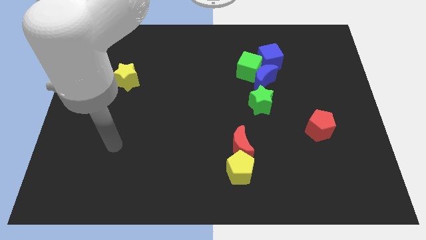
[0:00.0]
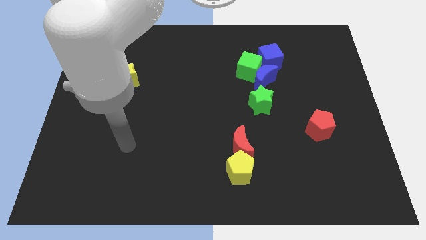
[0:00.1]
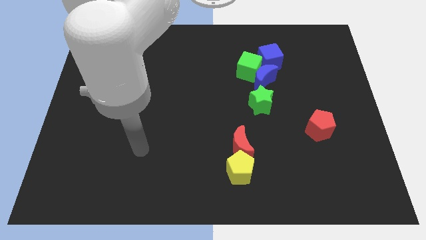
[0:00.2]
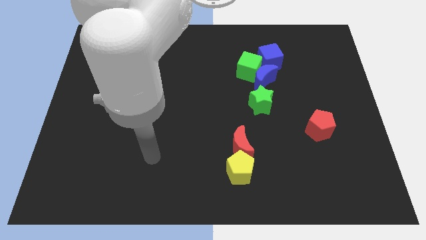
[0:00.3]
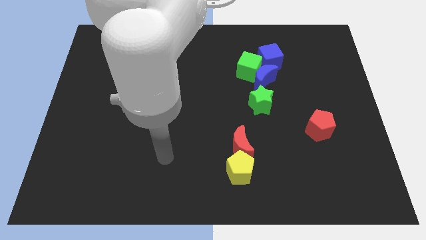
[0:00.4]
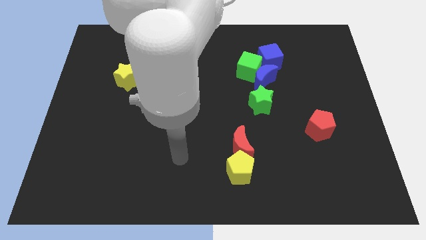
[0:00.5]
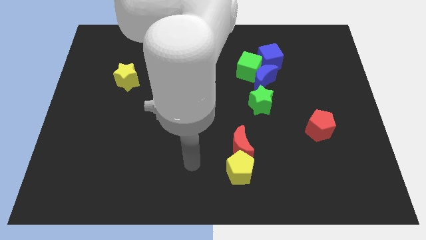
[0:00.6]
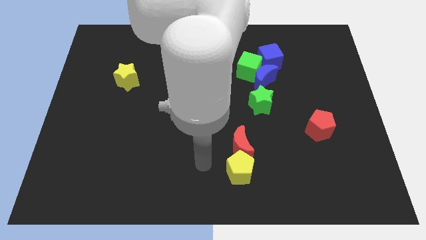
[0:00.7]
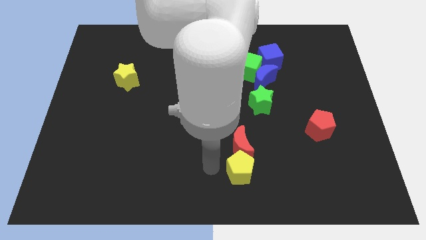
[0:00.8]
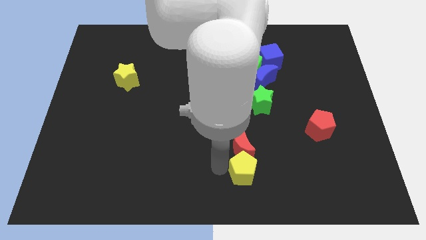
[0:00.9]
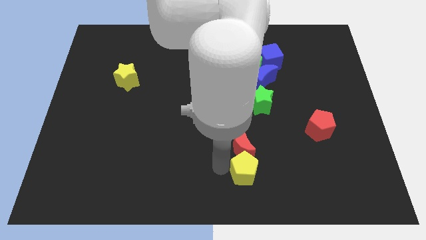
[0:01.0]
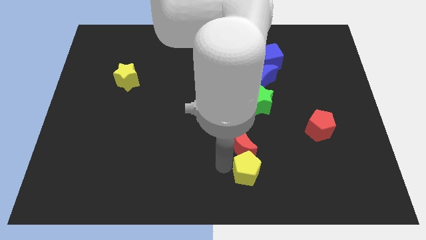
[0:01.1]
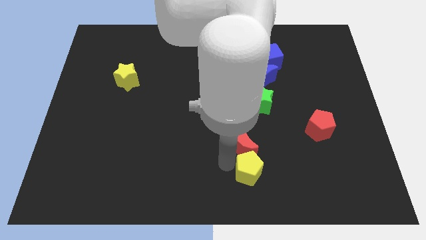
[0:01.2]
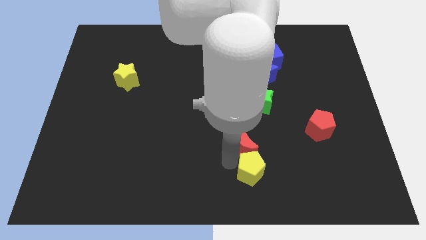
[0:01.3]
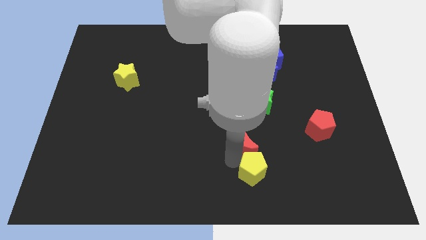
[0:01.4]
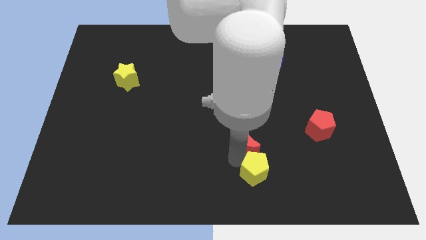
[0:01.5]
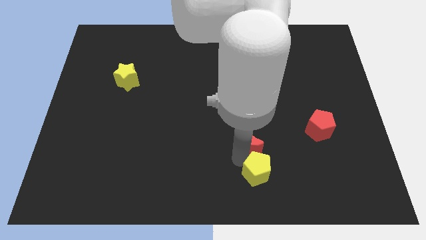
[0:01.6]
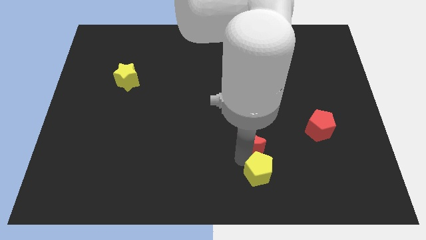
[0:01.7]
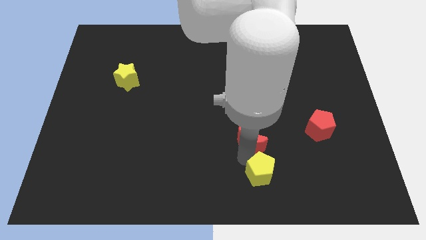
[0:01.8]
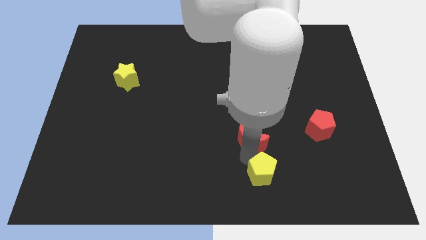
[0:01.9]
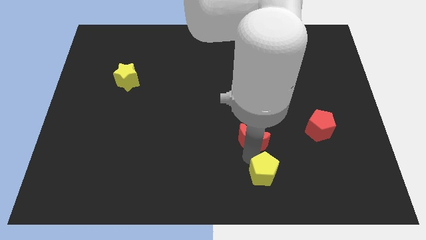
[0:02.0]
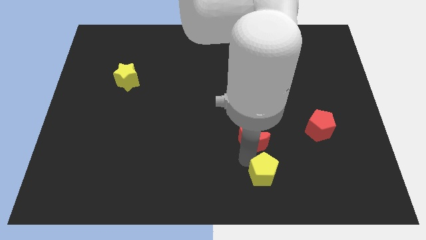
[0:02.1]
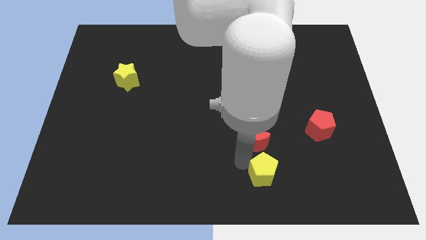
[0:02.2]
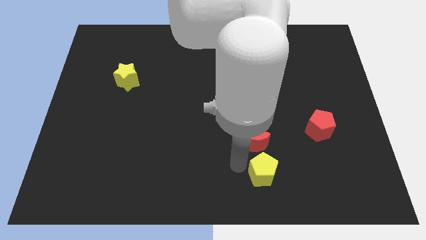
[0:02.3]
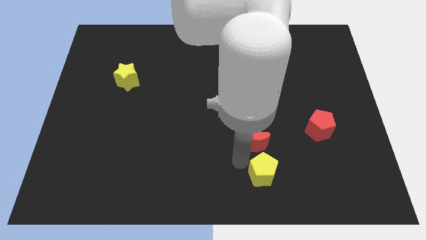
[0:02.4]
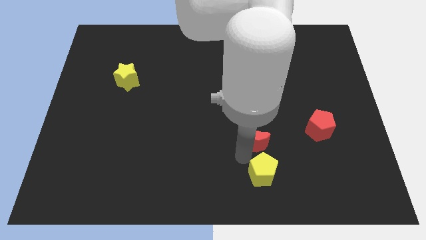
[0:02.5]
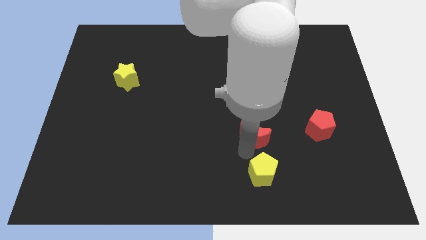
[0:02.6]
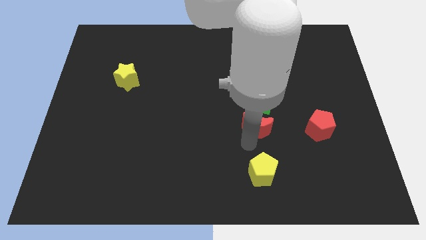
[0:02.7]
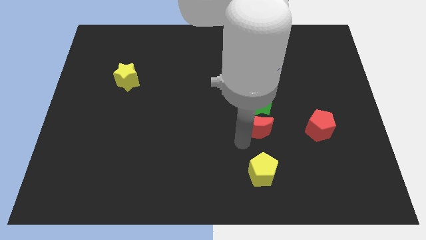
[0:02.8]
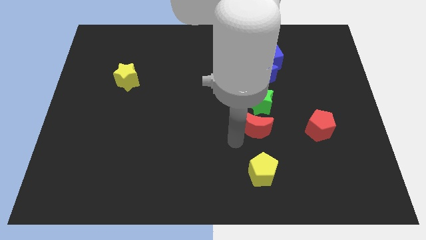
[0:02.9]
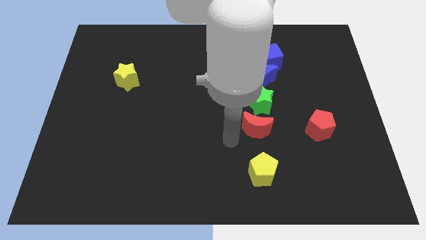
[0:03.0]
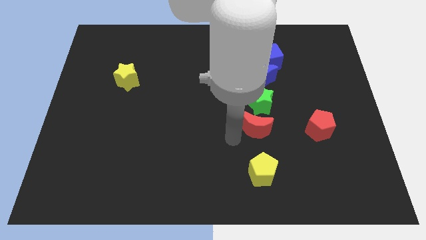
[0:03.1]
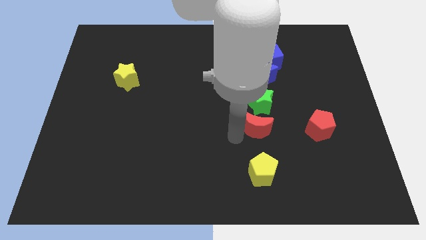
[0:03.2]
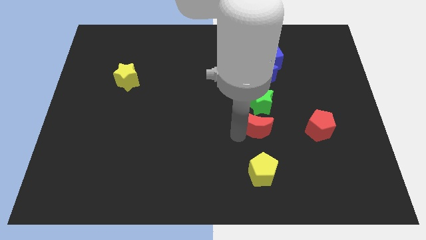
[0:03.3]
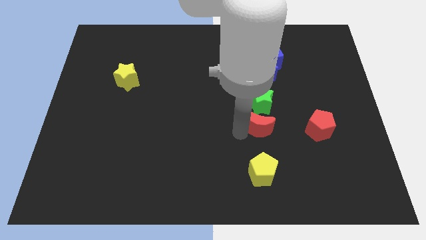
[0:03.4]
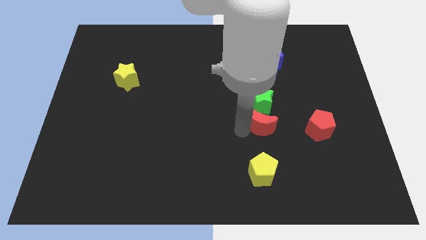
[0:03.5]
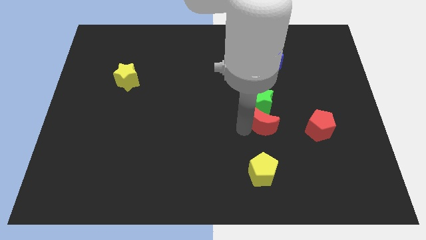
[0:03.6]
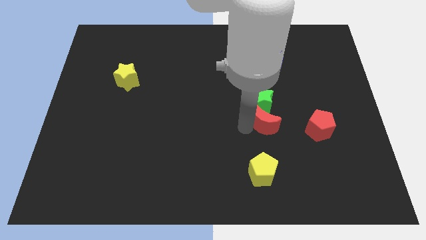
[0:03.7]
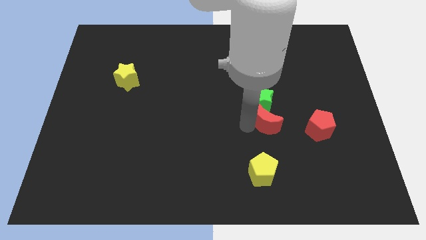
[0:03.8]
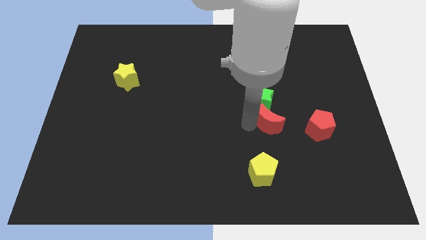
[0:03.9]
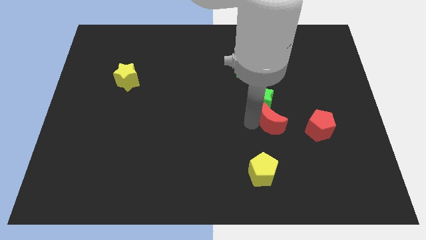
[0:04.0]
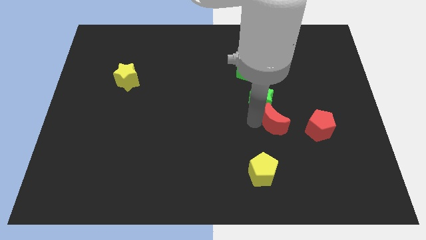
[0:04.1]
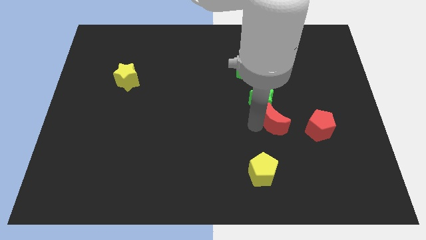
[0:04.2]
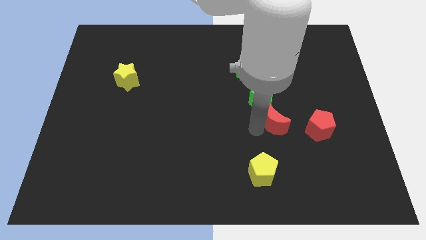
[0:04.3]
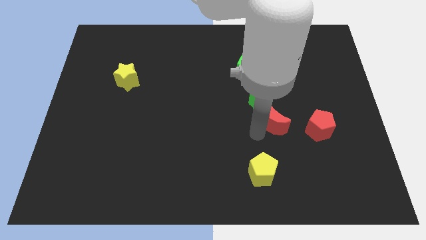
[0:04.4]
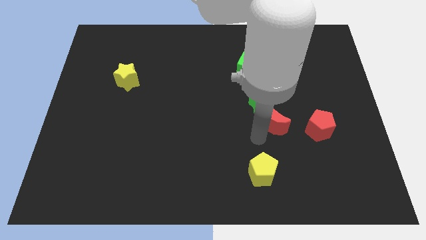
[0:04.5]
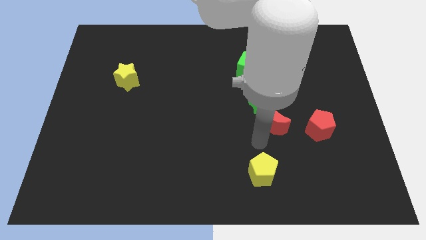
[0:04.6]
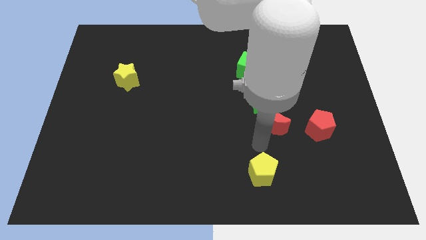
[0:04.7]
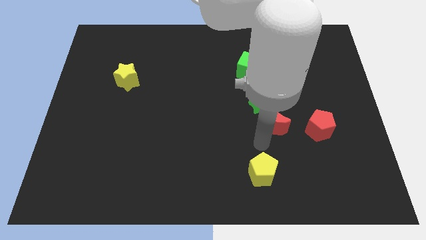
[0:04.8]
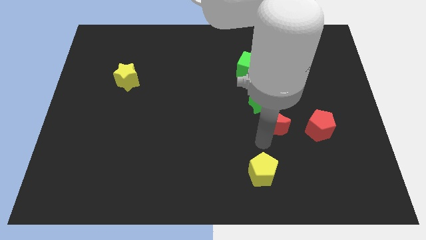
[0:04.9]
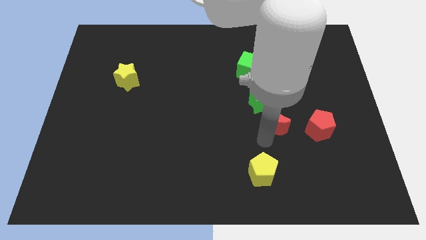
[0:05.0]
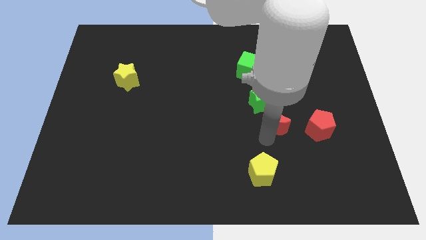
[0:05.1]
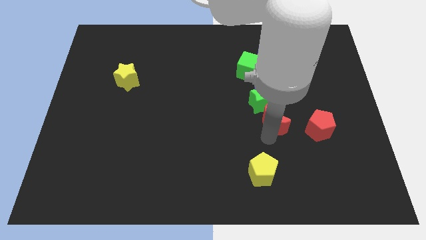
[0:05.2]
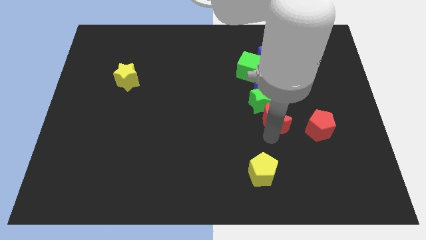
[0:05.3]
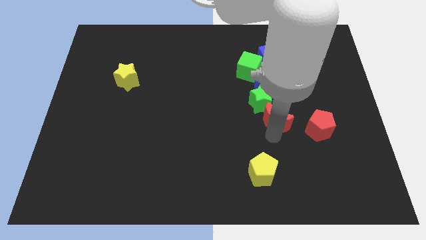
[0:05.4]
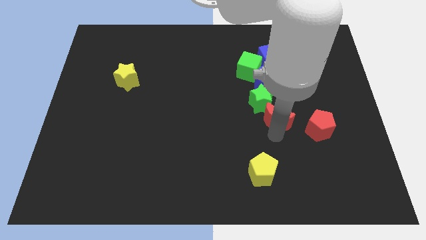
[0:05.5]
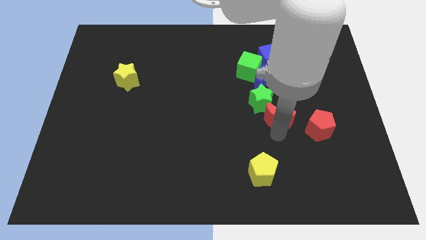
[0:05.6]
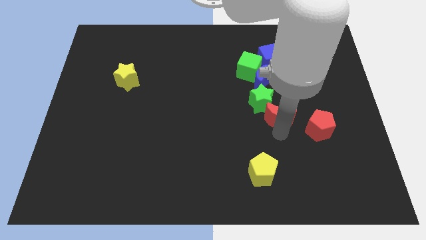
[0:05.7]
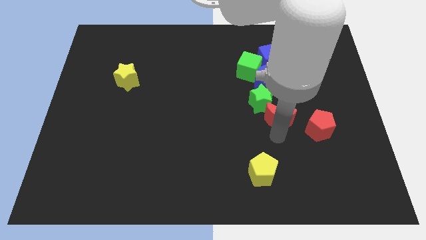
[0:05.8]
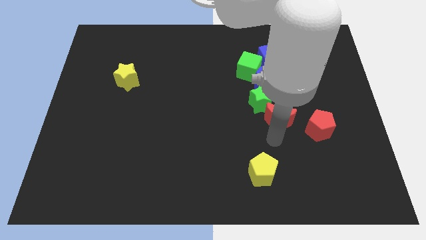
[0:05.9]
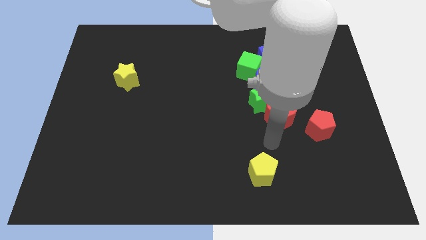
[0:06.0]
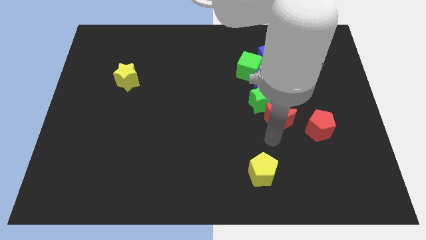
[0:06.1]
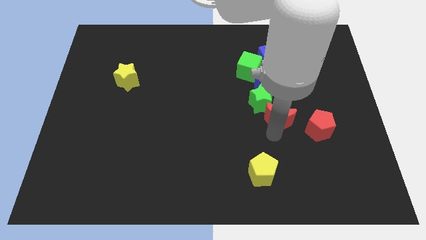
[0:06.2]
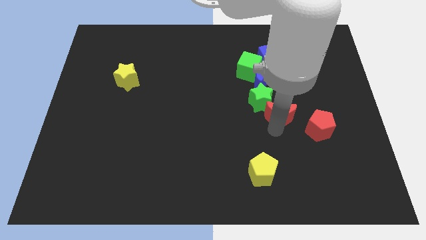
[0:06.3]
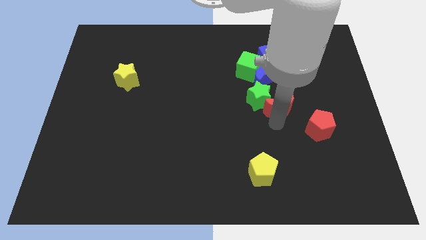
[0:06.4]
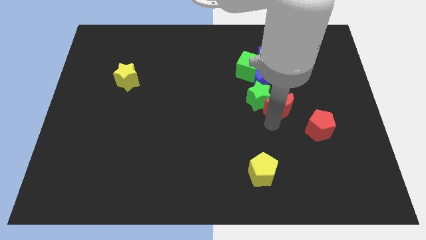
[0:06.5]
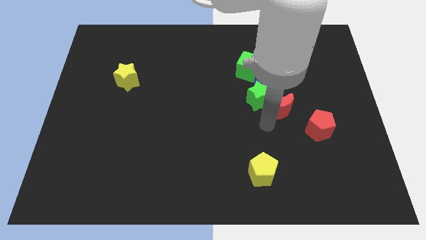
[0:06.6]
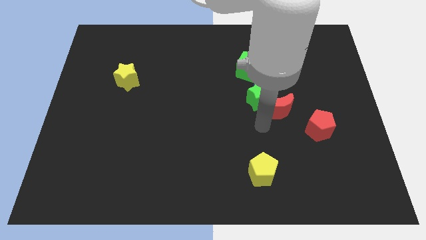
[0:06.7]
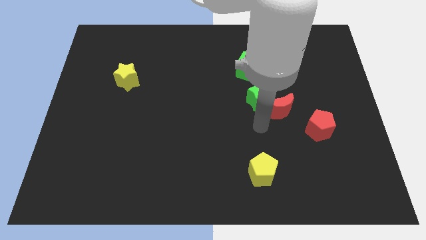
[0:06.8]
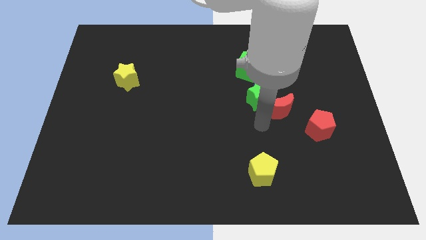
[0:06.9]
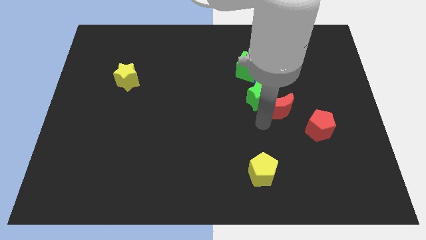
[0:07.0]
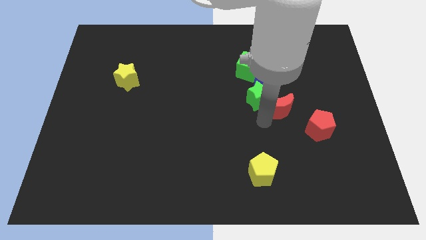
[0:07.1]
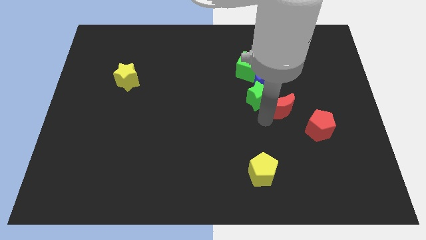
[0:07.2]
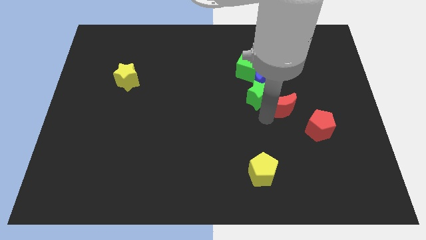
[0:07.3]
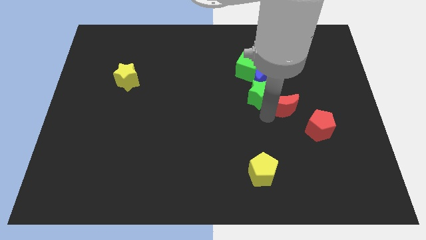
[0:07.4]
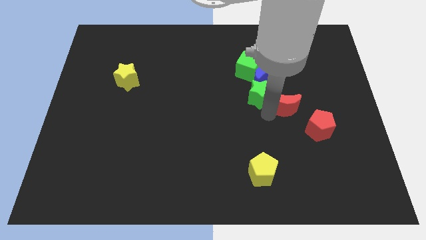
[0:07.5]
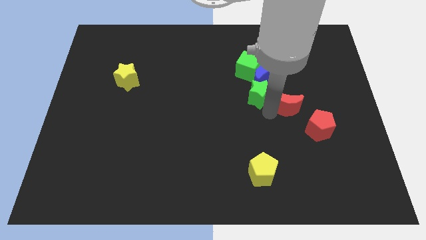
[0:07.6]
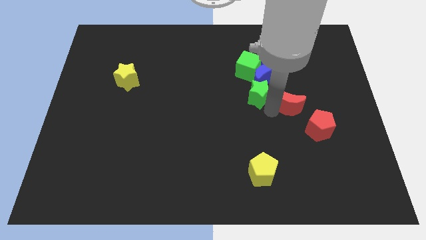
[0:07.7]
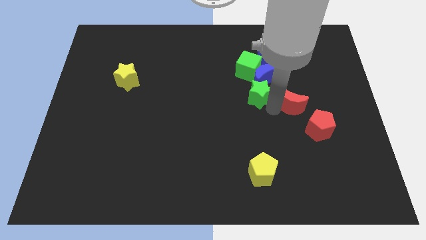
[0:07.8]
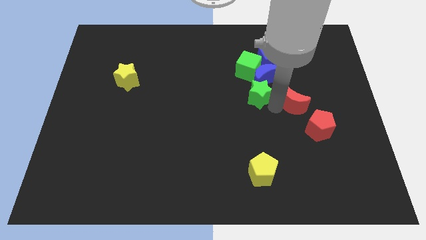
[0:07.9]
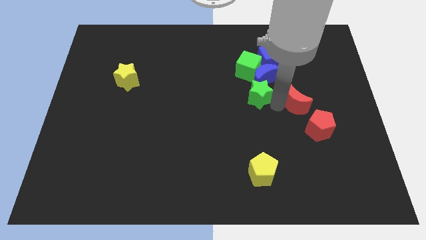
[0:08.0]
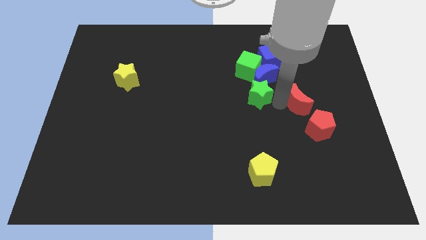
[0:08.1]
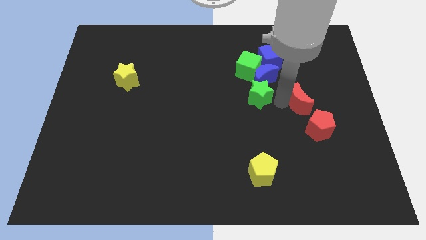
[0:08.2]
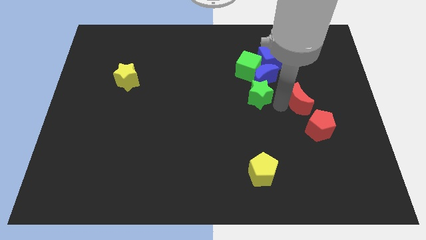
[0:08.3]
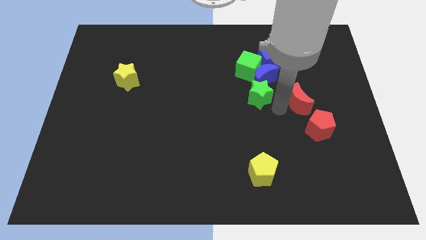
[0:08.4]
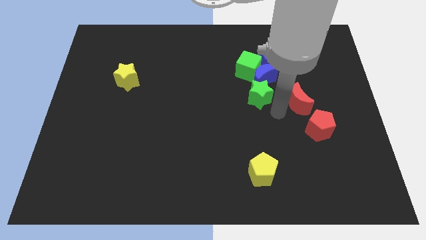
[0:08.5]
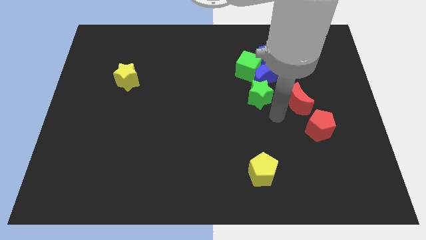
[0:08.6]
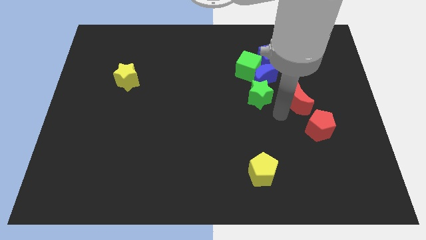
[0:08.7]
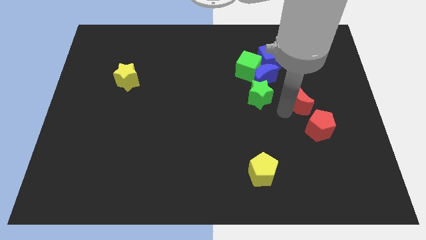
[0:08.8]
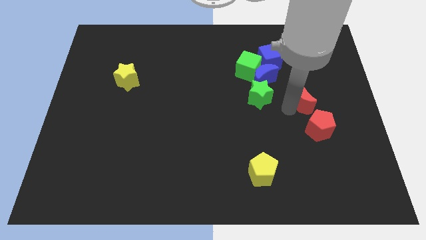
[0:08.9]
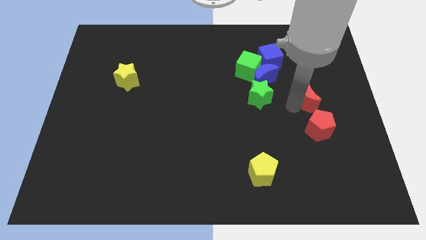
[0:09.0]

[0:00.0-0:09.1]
slide the red moon upwards and right
